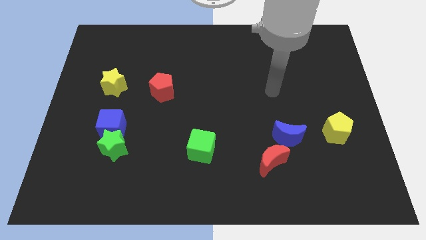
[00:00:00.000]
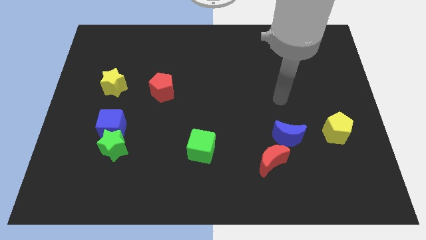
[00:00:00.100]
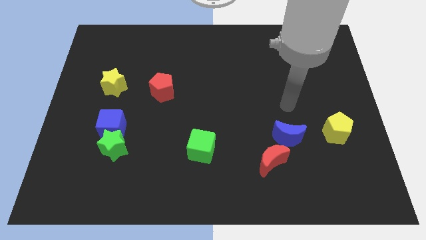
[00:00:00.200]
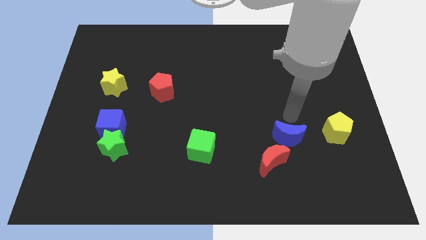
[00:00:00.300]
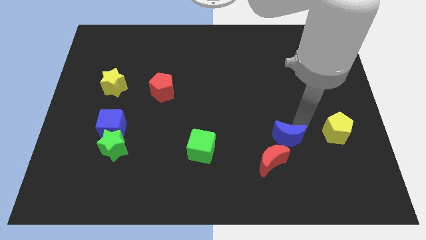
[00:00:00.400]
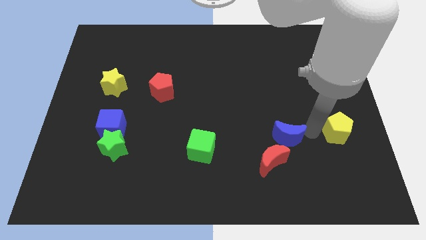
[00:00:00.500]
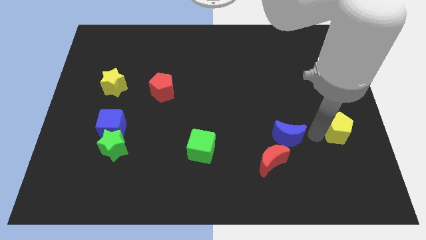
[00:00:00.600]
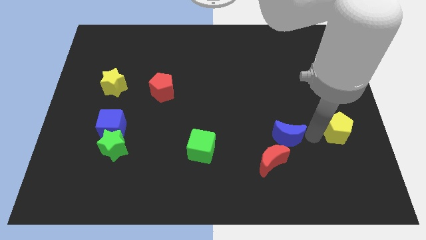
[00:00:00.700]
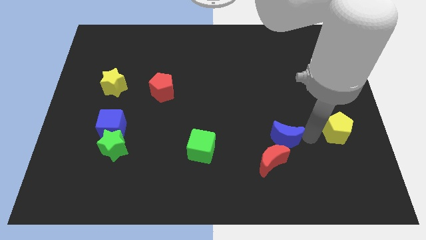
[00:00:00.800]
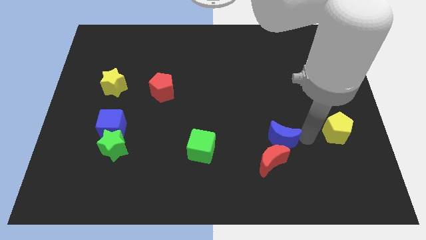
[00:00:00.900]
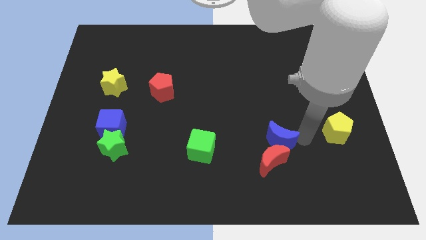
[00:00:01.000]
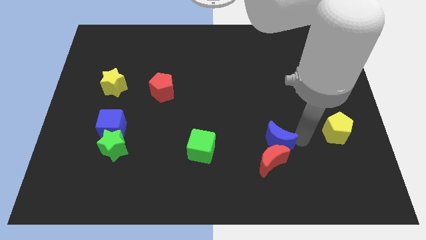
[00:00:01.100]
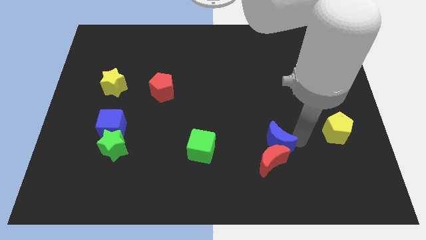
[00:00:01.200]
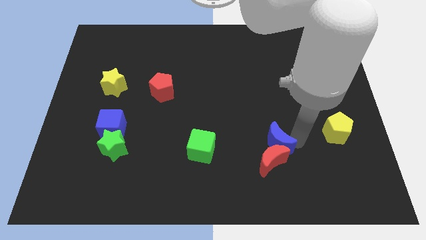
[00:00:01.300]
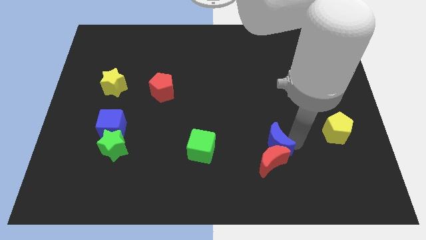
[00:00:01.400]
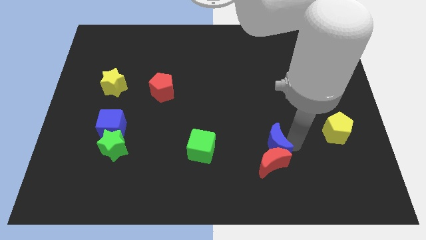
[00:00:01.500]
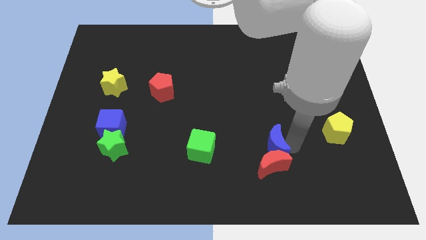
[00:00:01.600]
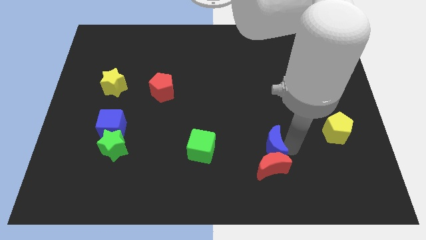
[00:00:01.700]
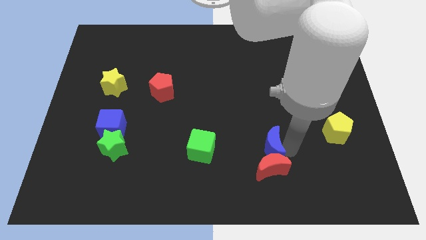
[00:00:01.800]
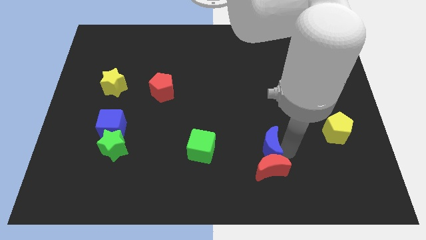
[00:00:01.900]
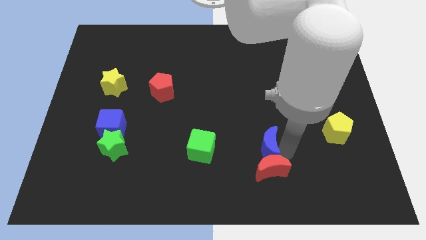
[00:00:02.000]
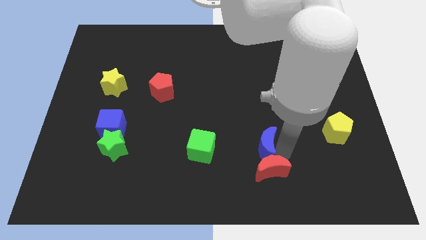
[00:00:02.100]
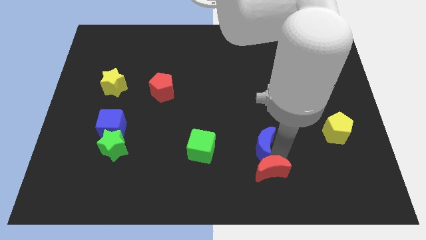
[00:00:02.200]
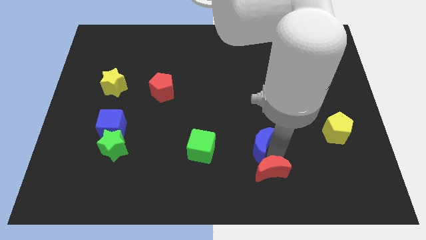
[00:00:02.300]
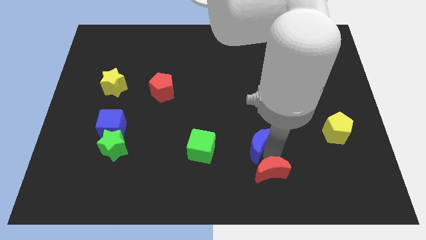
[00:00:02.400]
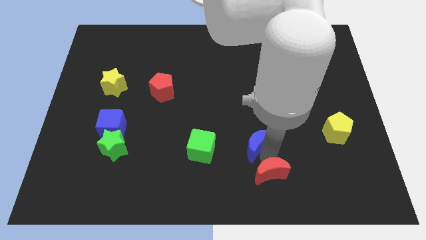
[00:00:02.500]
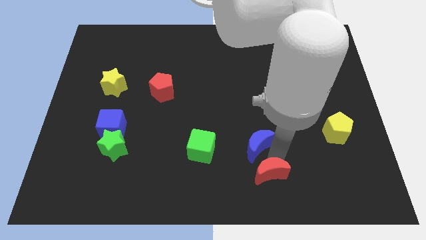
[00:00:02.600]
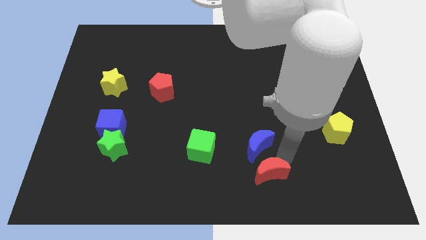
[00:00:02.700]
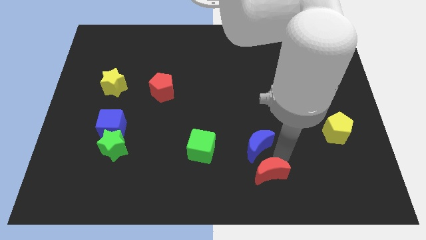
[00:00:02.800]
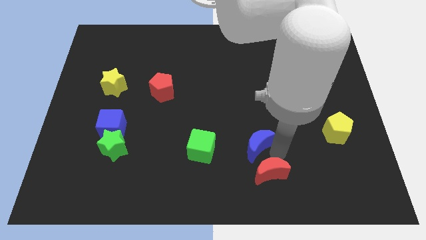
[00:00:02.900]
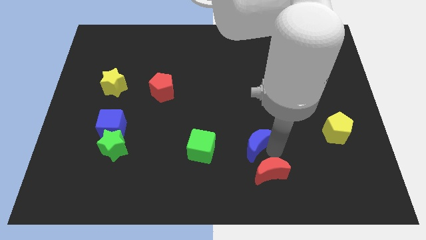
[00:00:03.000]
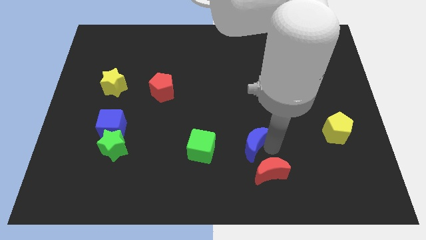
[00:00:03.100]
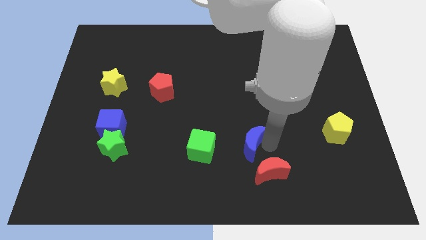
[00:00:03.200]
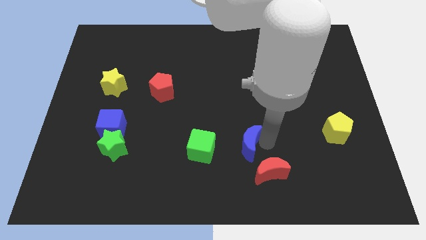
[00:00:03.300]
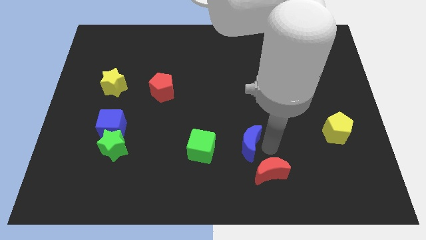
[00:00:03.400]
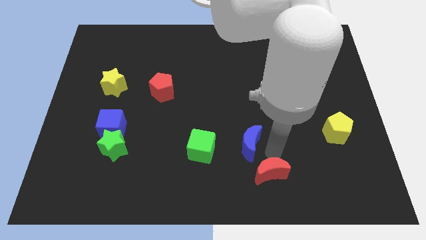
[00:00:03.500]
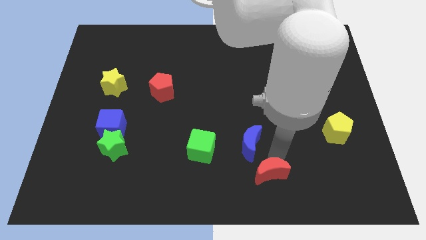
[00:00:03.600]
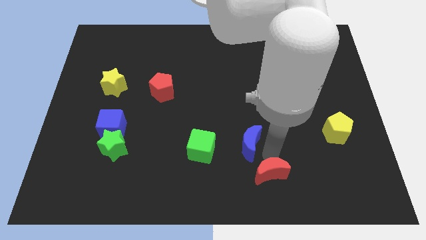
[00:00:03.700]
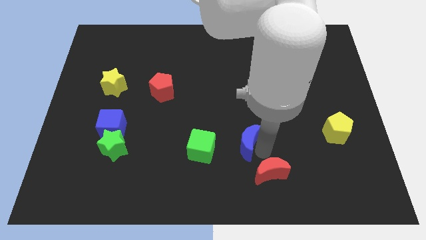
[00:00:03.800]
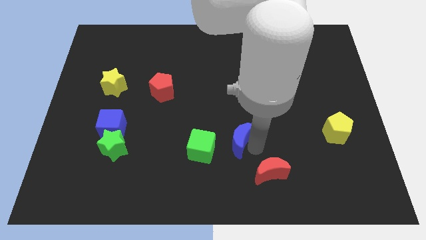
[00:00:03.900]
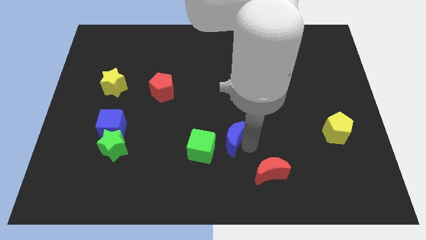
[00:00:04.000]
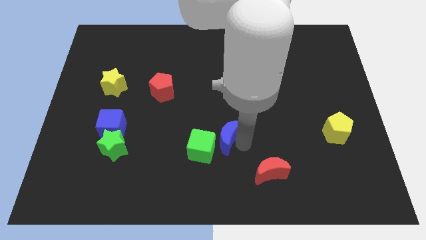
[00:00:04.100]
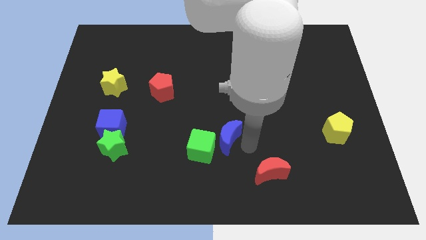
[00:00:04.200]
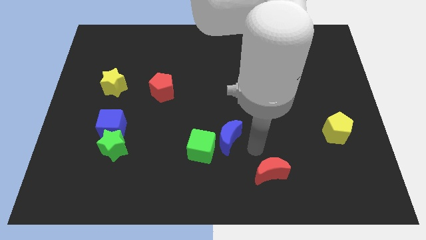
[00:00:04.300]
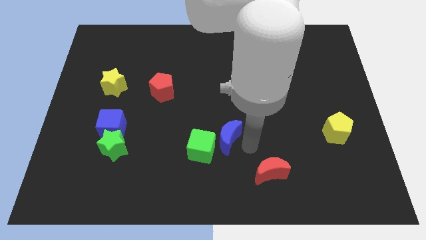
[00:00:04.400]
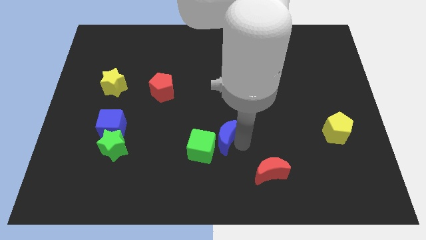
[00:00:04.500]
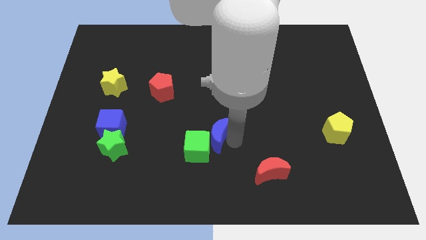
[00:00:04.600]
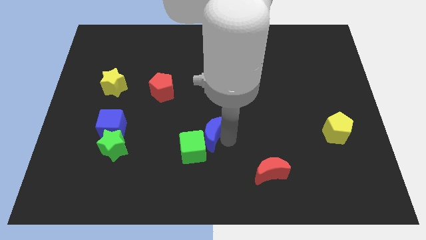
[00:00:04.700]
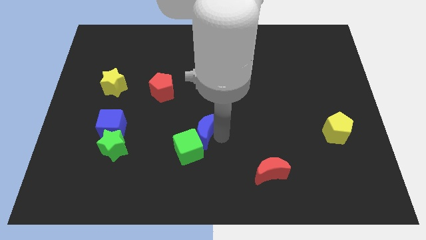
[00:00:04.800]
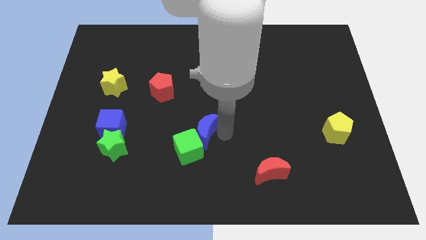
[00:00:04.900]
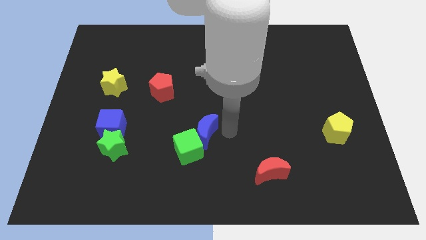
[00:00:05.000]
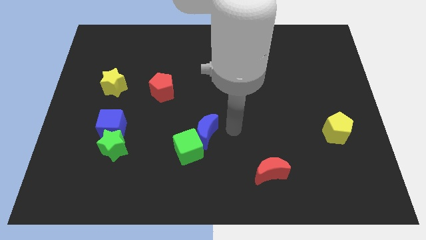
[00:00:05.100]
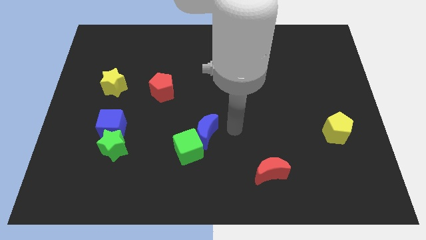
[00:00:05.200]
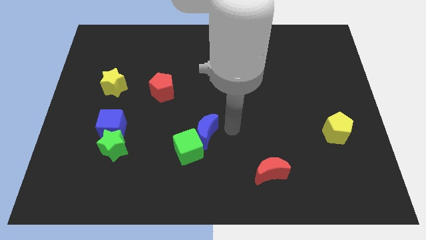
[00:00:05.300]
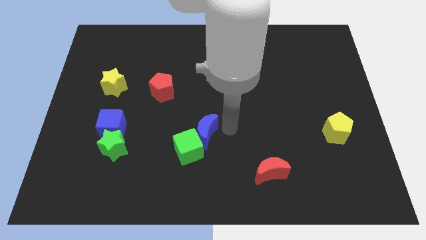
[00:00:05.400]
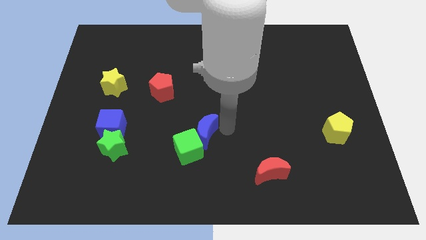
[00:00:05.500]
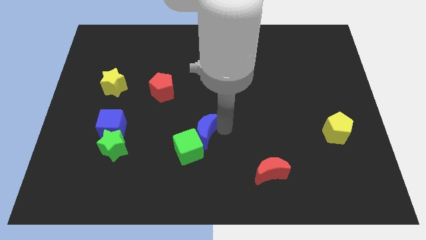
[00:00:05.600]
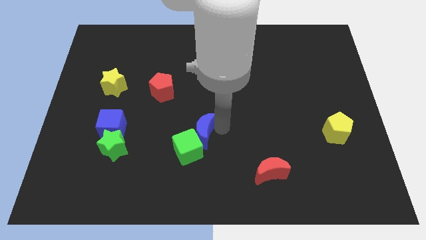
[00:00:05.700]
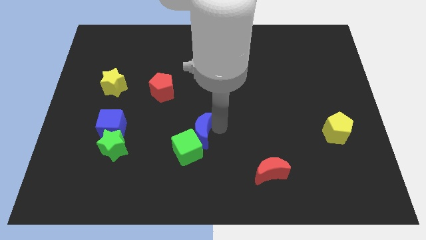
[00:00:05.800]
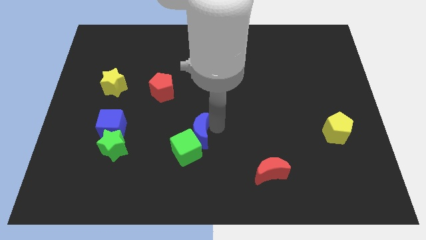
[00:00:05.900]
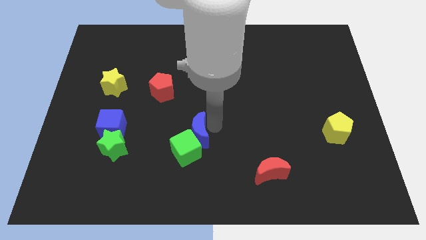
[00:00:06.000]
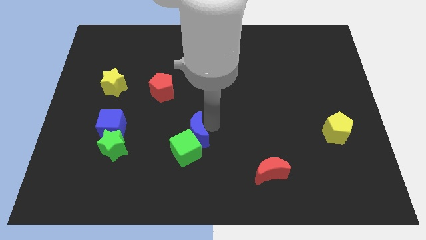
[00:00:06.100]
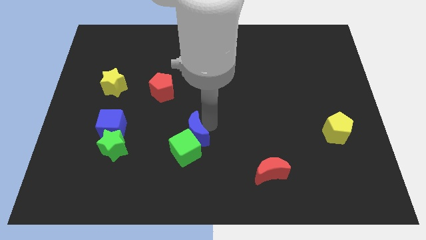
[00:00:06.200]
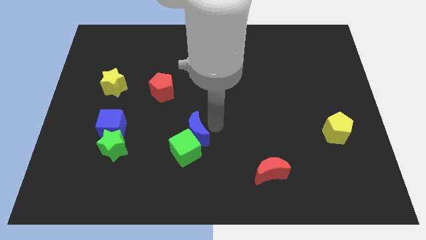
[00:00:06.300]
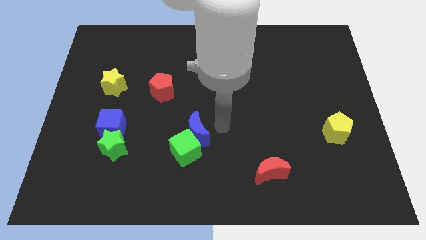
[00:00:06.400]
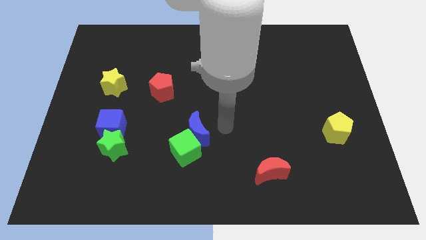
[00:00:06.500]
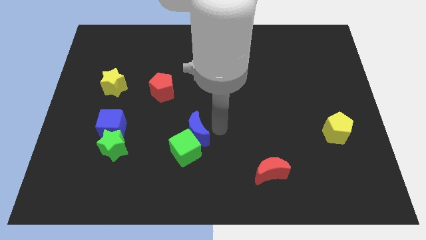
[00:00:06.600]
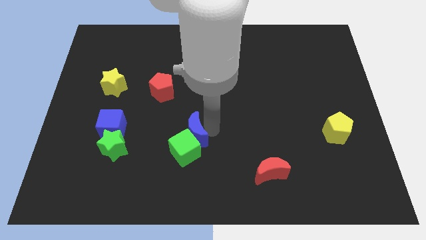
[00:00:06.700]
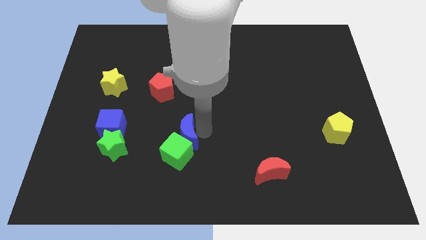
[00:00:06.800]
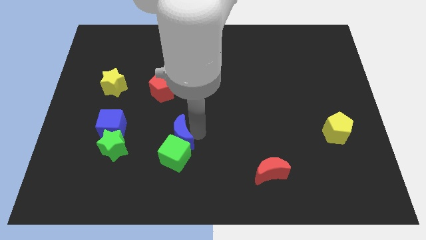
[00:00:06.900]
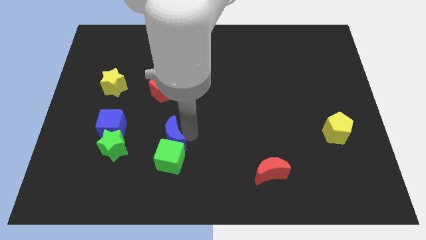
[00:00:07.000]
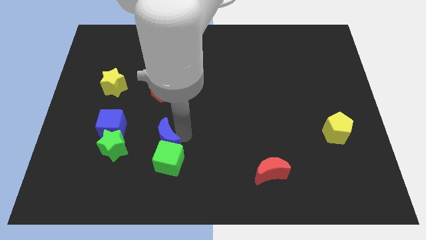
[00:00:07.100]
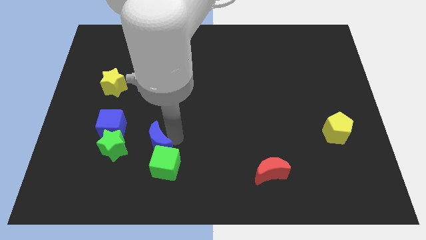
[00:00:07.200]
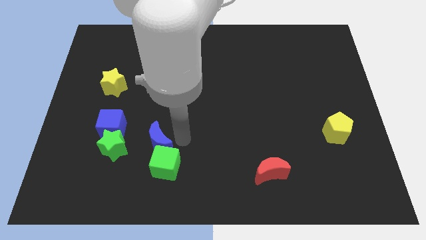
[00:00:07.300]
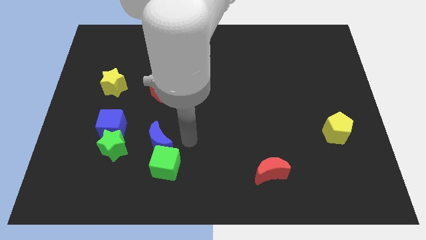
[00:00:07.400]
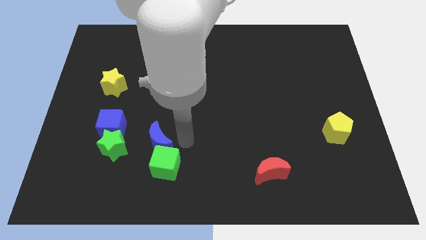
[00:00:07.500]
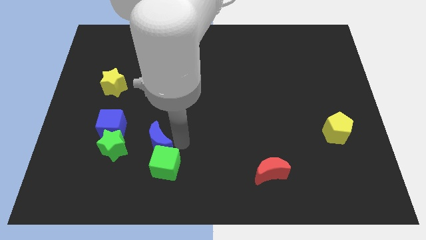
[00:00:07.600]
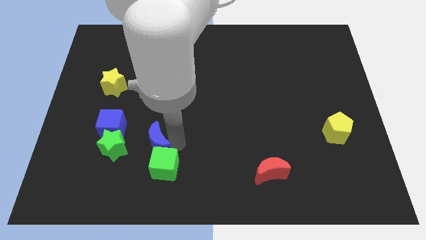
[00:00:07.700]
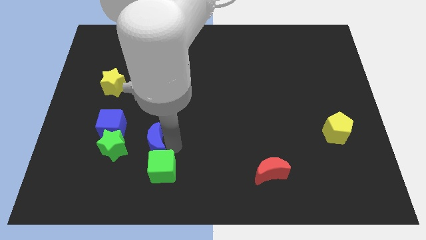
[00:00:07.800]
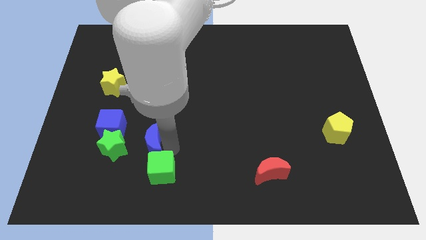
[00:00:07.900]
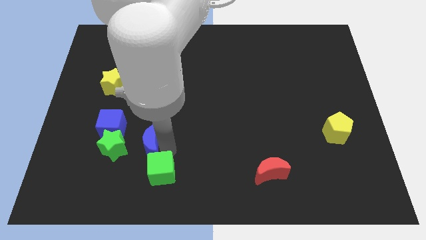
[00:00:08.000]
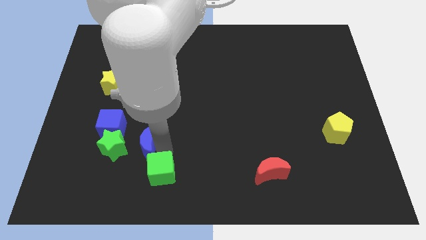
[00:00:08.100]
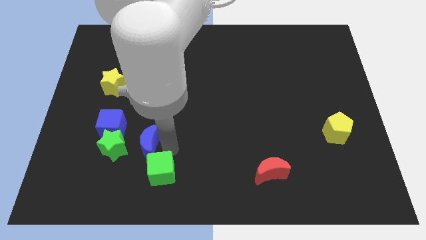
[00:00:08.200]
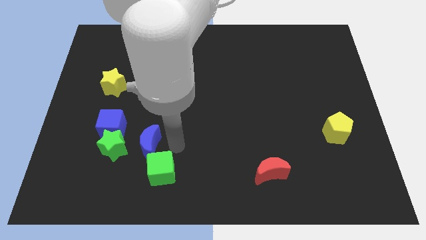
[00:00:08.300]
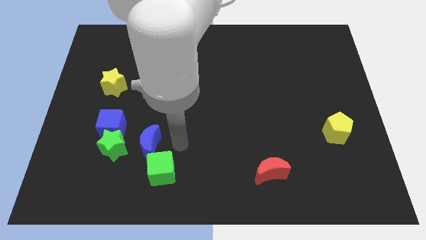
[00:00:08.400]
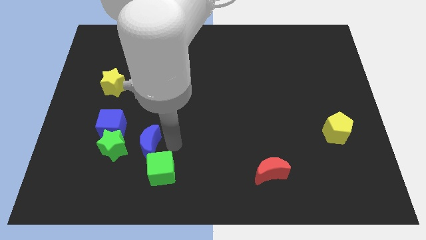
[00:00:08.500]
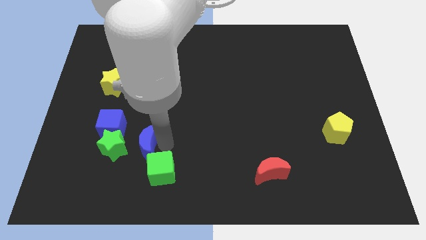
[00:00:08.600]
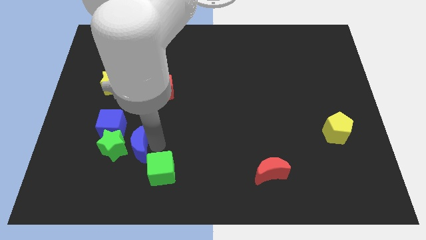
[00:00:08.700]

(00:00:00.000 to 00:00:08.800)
slide the blue moon to the green star
